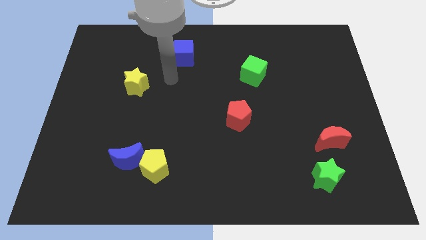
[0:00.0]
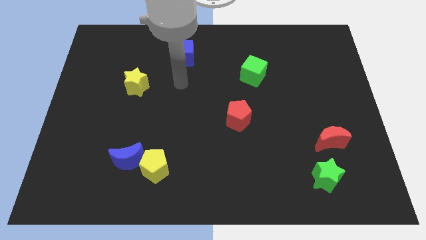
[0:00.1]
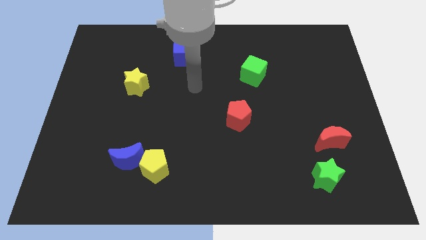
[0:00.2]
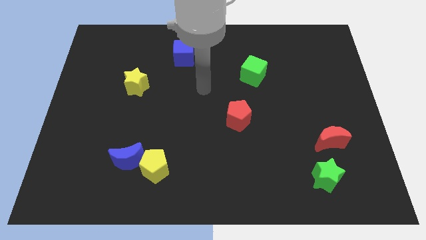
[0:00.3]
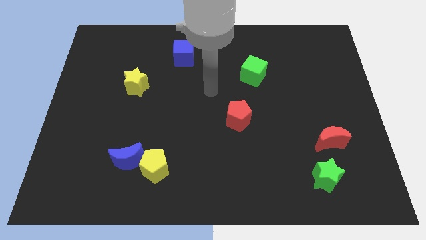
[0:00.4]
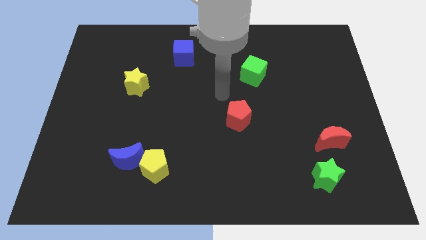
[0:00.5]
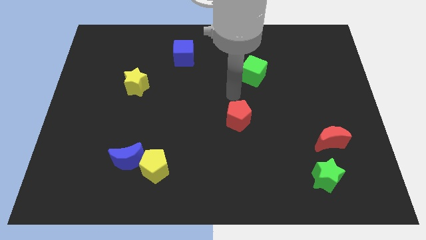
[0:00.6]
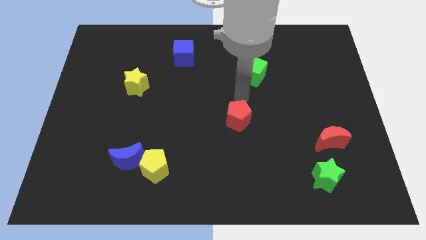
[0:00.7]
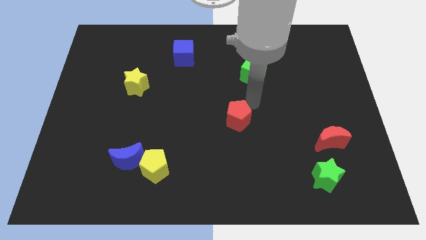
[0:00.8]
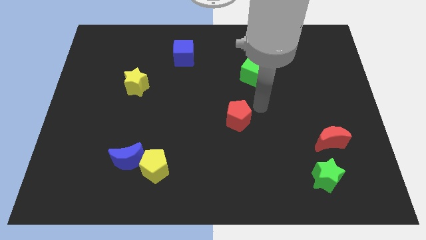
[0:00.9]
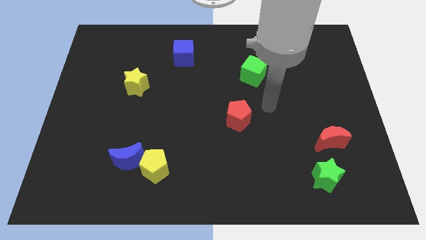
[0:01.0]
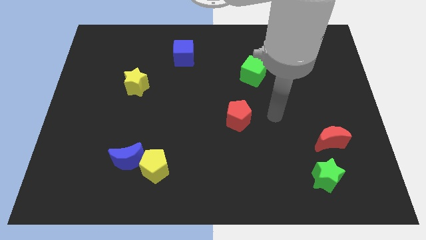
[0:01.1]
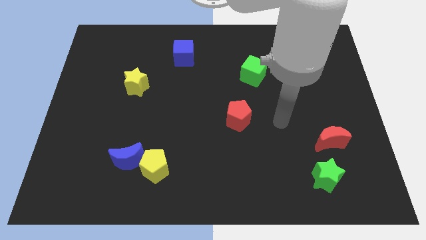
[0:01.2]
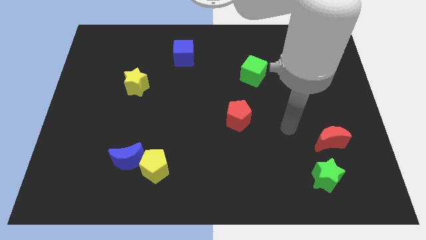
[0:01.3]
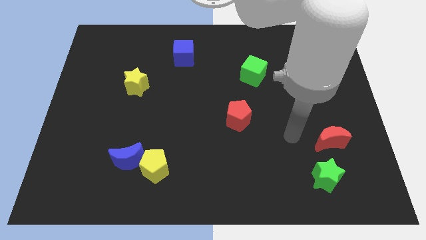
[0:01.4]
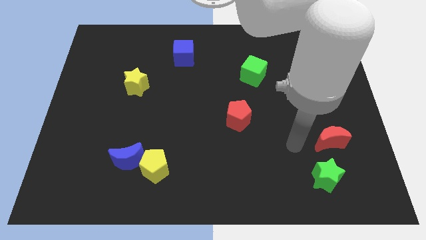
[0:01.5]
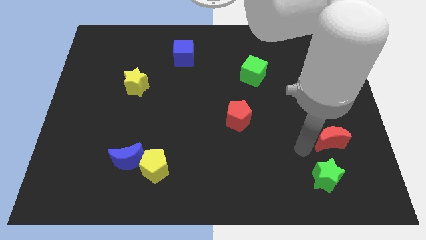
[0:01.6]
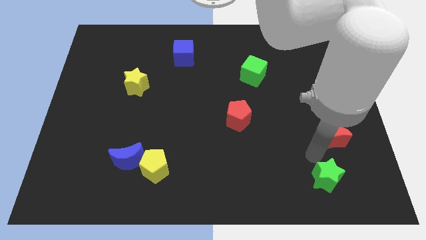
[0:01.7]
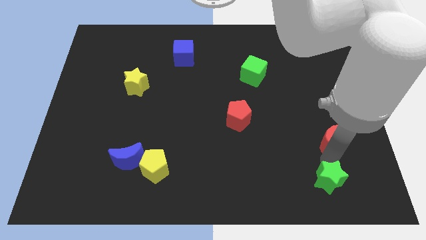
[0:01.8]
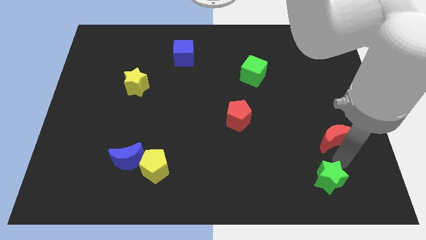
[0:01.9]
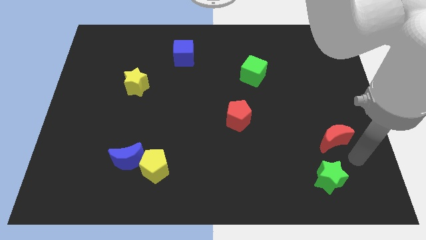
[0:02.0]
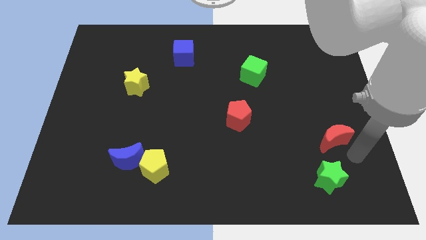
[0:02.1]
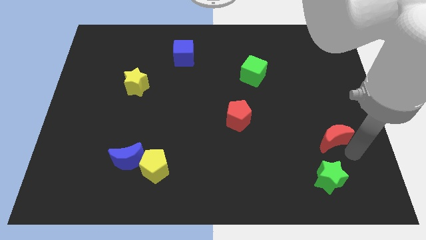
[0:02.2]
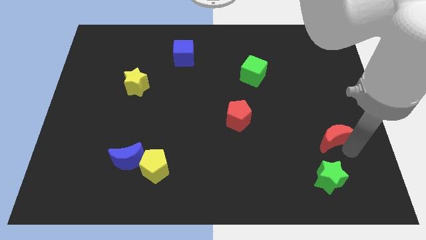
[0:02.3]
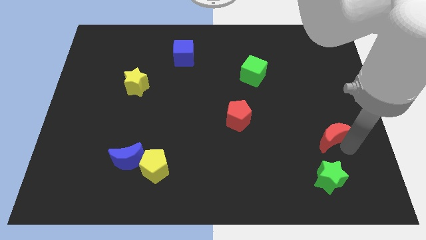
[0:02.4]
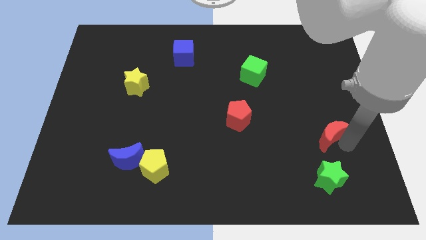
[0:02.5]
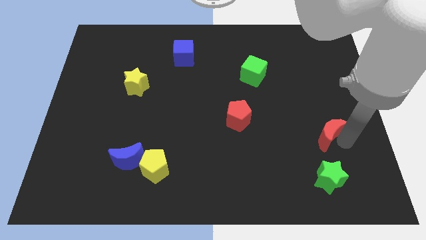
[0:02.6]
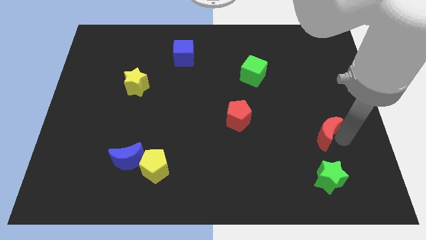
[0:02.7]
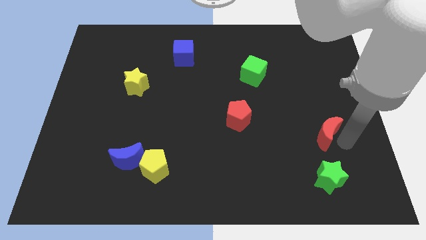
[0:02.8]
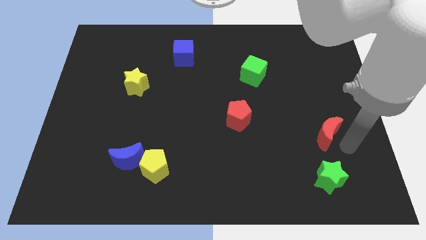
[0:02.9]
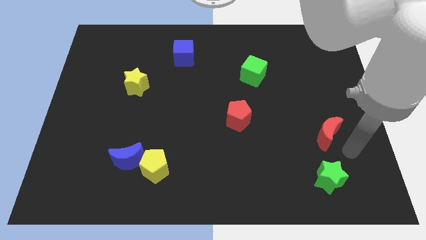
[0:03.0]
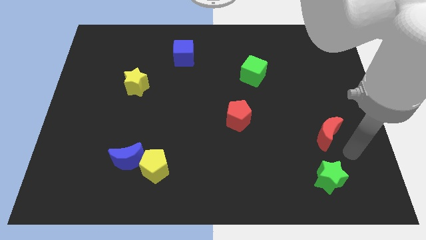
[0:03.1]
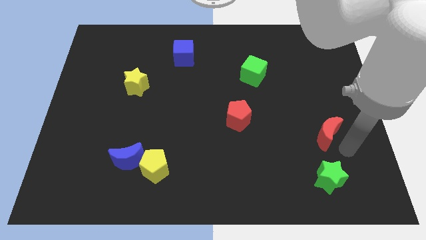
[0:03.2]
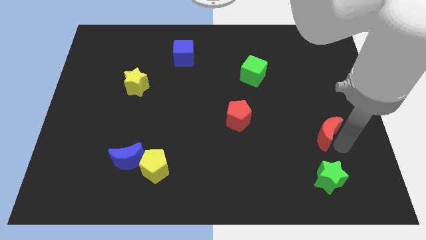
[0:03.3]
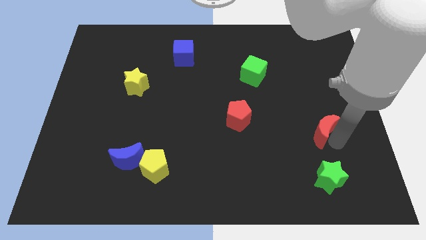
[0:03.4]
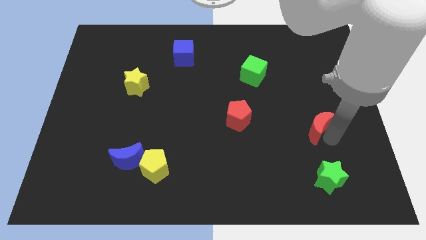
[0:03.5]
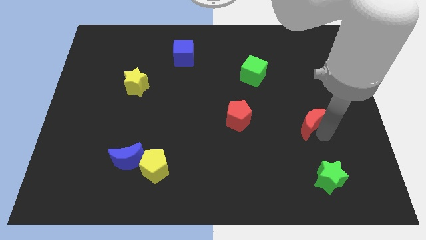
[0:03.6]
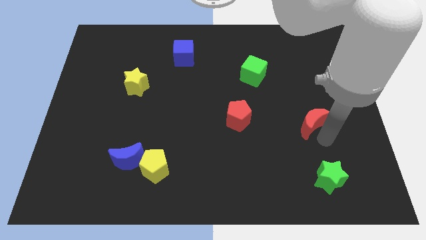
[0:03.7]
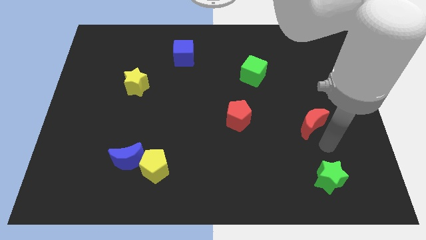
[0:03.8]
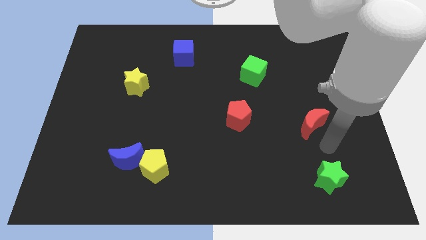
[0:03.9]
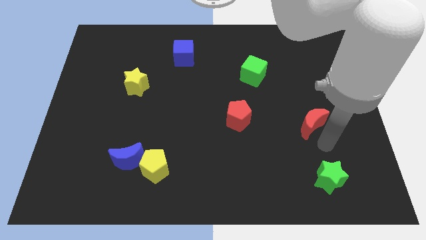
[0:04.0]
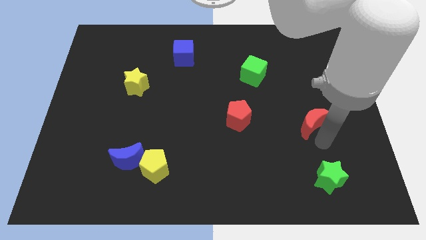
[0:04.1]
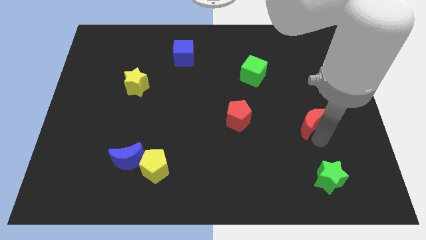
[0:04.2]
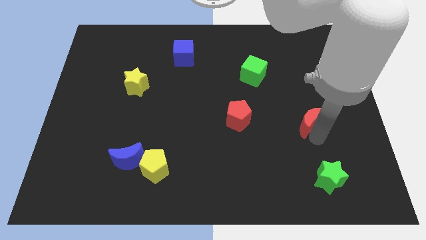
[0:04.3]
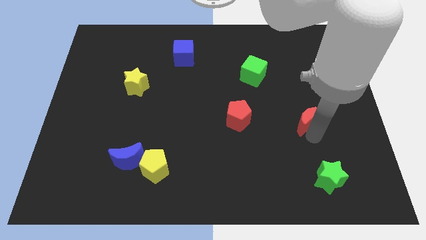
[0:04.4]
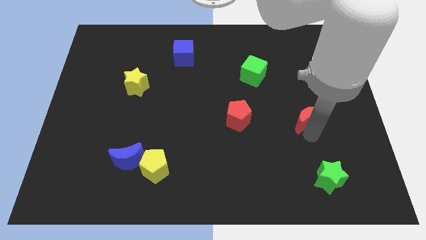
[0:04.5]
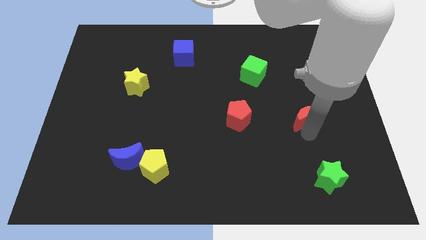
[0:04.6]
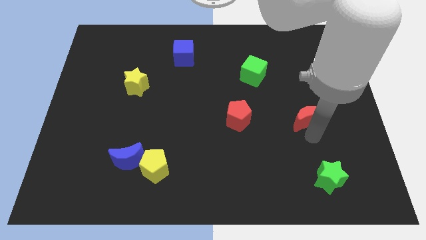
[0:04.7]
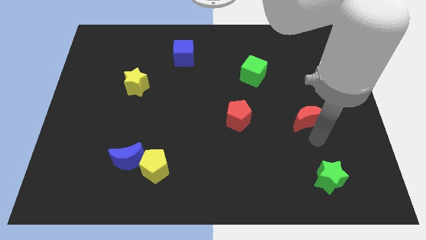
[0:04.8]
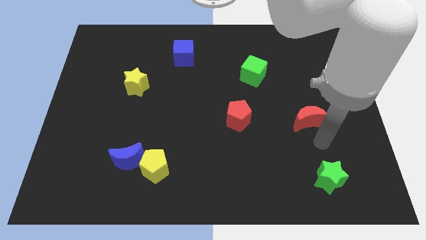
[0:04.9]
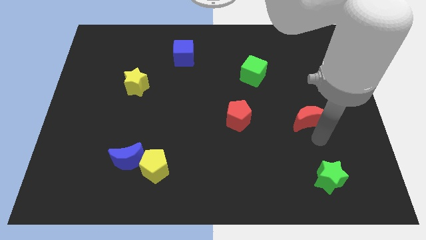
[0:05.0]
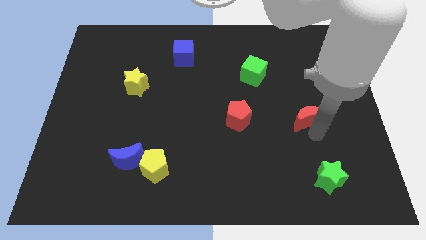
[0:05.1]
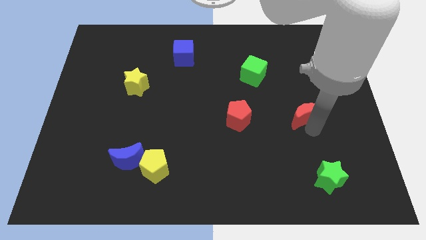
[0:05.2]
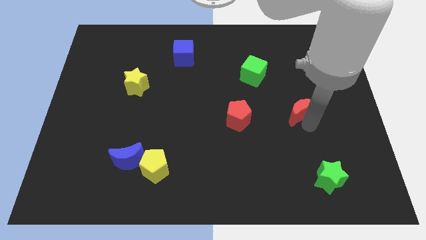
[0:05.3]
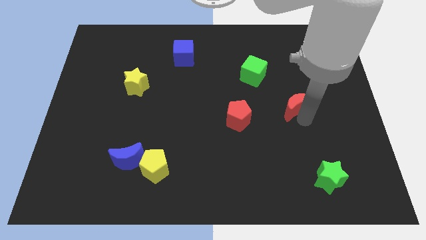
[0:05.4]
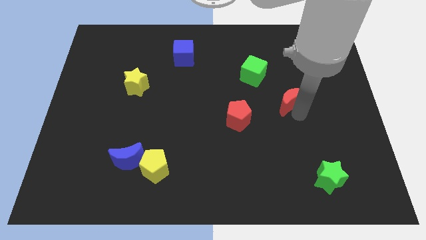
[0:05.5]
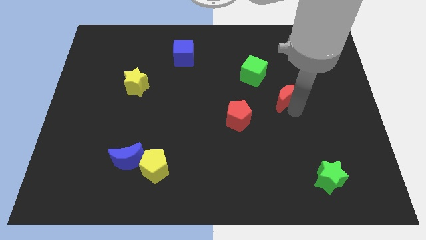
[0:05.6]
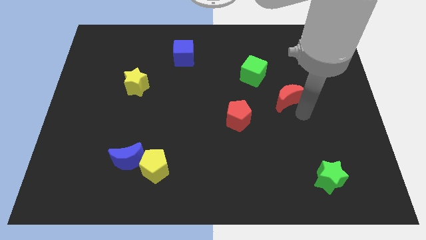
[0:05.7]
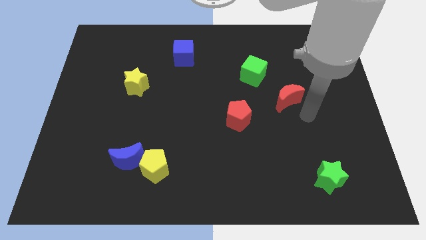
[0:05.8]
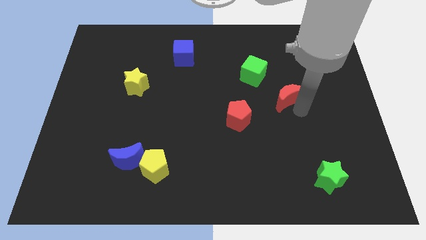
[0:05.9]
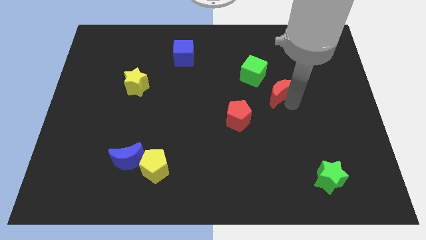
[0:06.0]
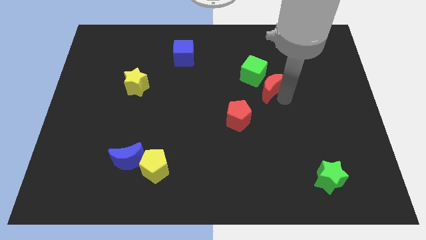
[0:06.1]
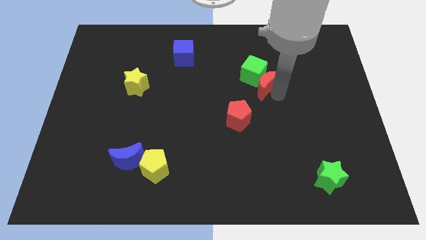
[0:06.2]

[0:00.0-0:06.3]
slide the red moon close to the green cube

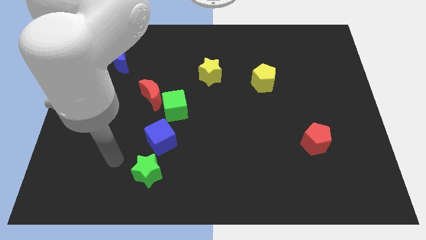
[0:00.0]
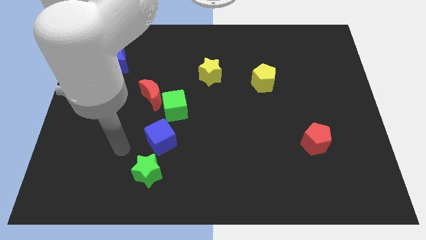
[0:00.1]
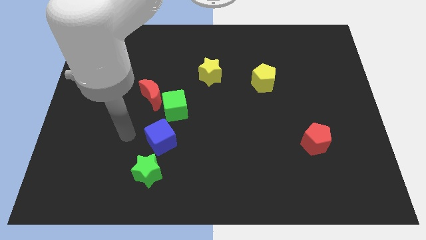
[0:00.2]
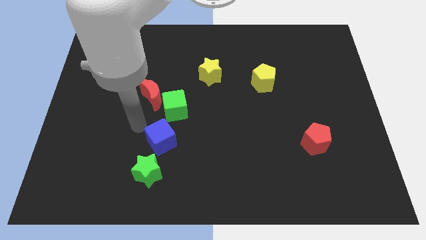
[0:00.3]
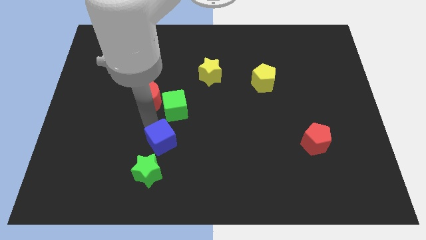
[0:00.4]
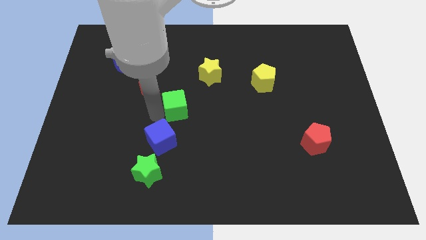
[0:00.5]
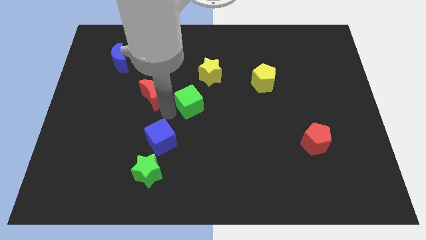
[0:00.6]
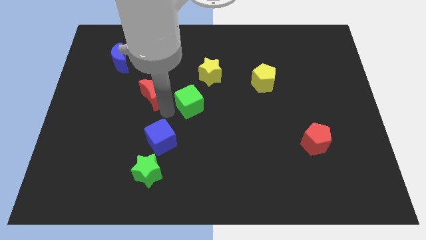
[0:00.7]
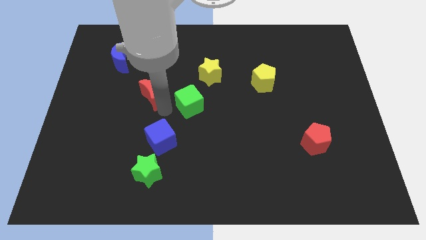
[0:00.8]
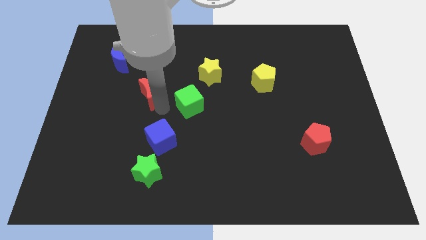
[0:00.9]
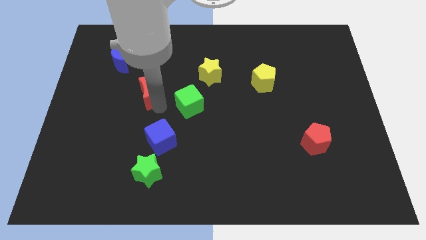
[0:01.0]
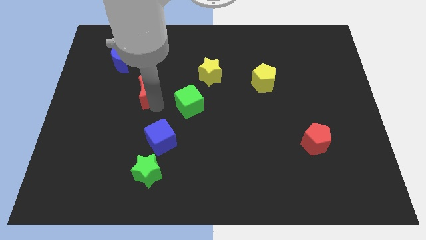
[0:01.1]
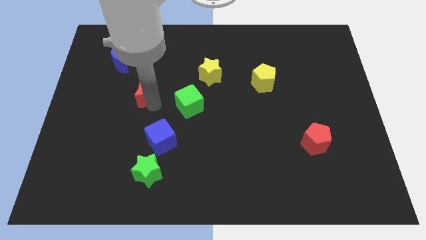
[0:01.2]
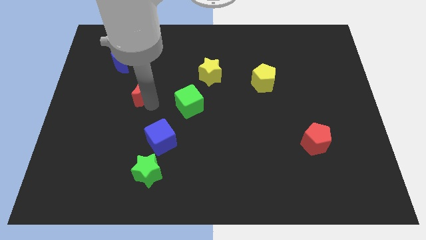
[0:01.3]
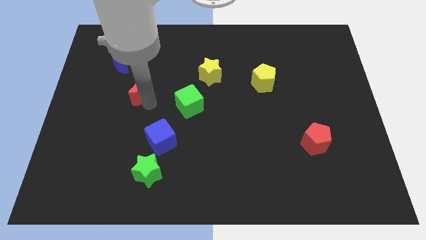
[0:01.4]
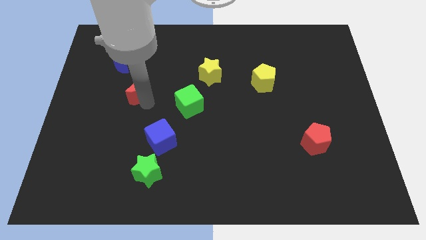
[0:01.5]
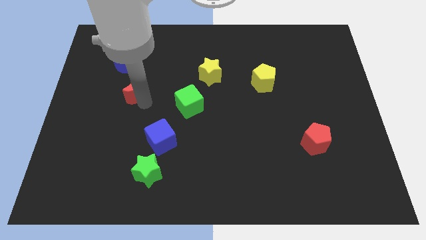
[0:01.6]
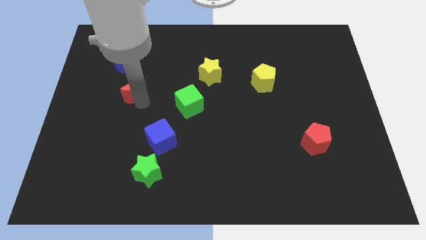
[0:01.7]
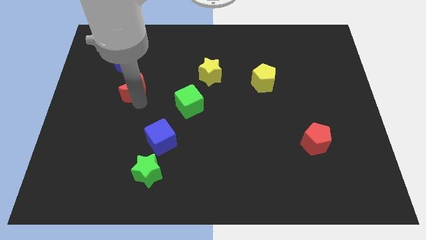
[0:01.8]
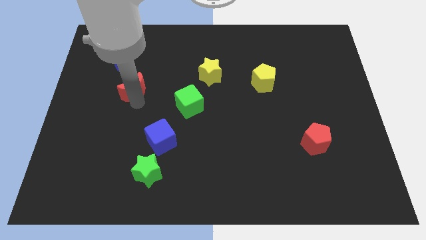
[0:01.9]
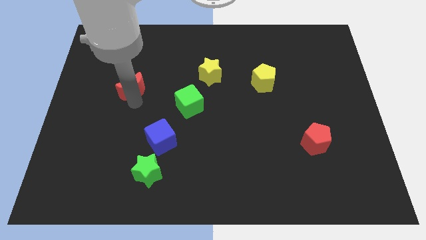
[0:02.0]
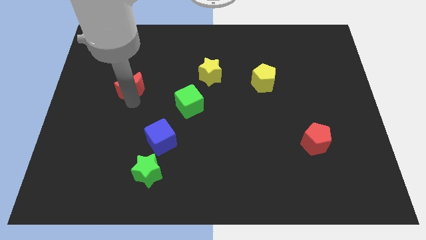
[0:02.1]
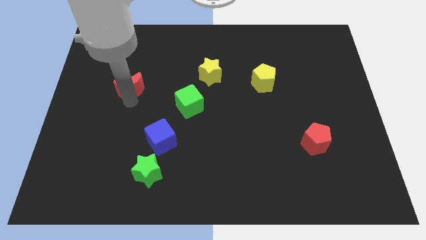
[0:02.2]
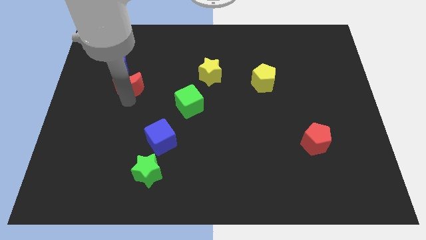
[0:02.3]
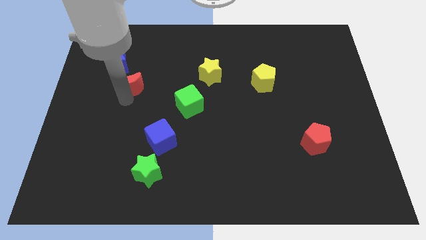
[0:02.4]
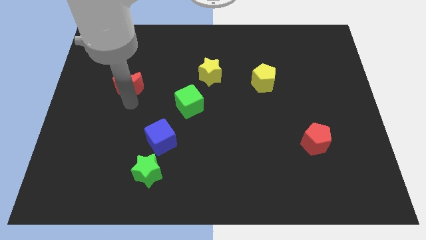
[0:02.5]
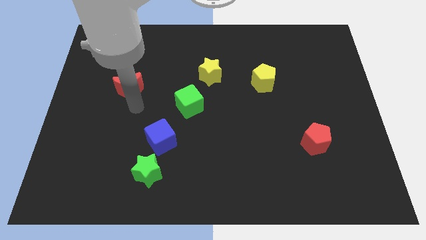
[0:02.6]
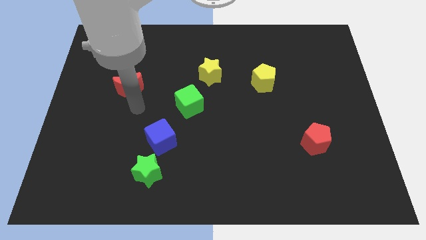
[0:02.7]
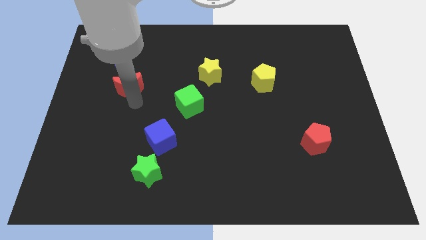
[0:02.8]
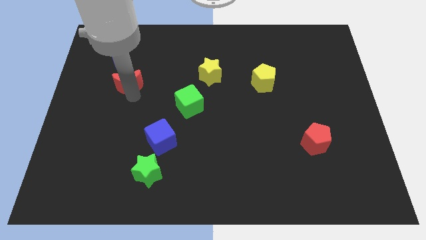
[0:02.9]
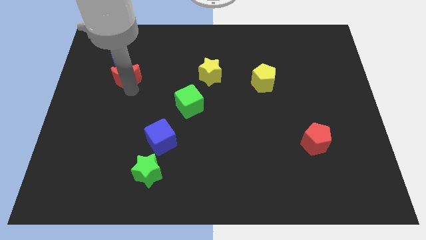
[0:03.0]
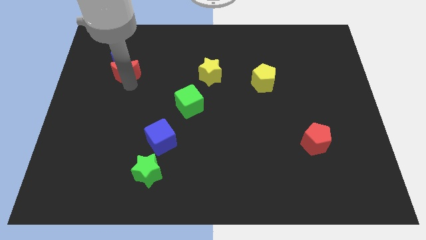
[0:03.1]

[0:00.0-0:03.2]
push the red moon towards the blue moon
